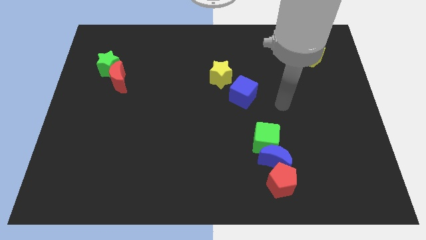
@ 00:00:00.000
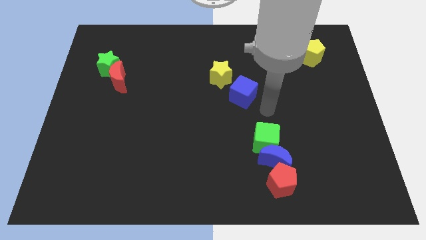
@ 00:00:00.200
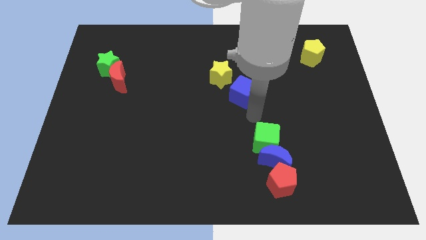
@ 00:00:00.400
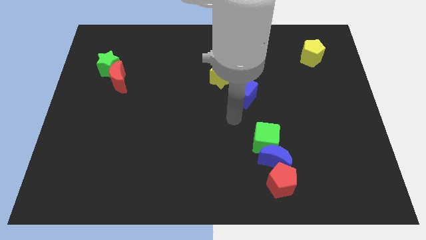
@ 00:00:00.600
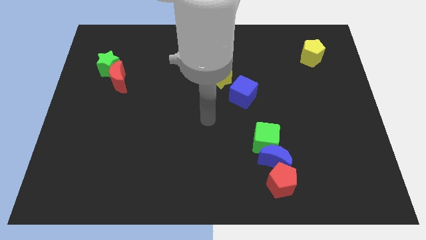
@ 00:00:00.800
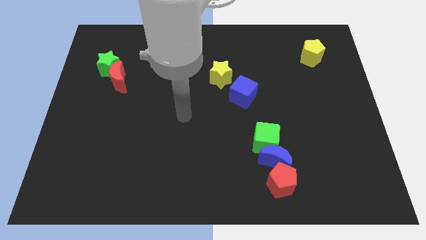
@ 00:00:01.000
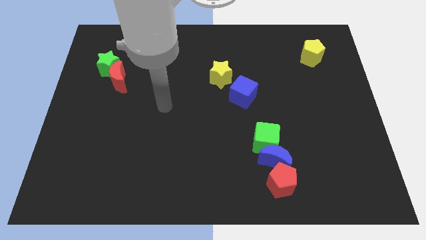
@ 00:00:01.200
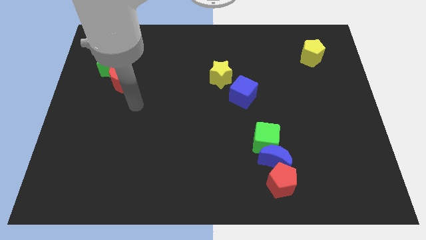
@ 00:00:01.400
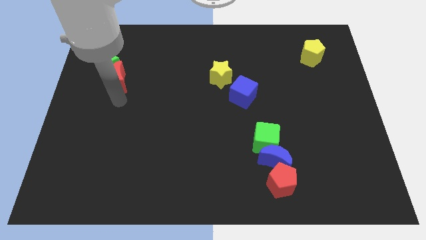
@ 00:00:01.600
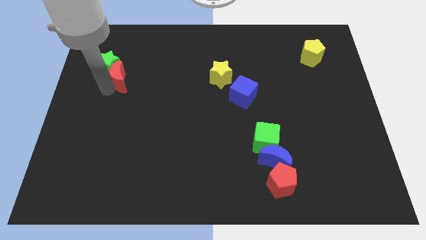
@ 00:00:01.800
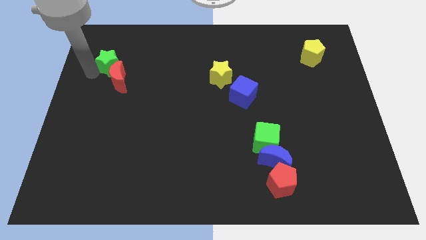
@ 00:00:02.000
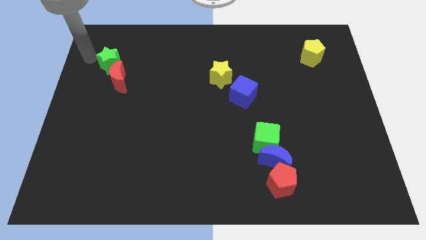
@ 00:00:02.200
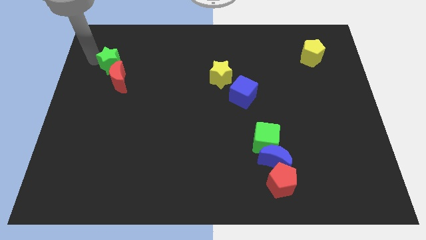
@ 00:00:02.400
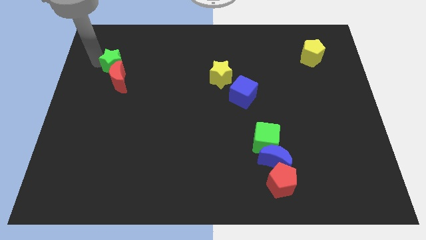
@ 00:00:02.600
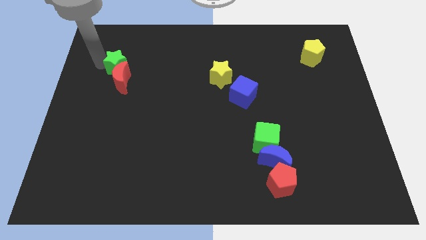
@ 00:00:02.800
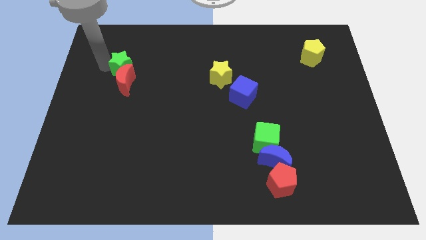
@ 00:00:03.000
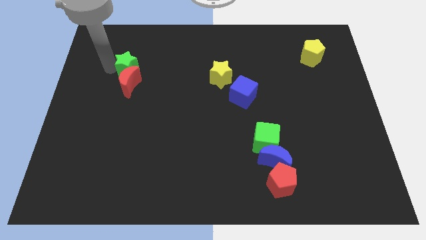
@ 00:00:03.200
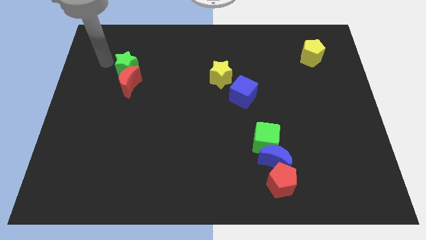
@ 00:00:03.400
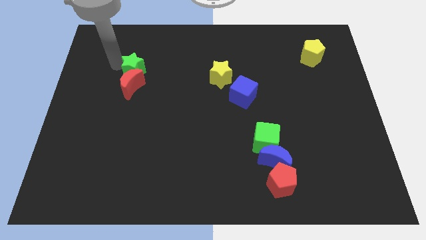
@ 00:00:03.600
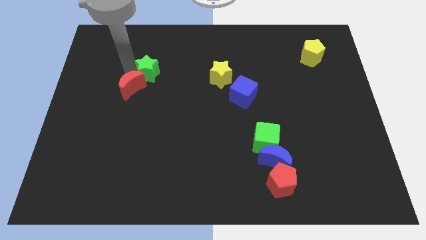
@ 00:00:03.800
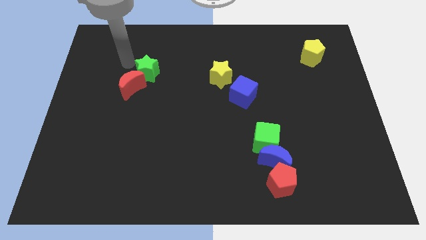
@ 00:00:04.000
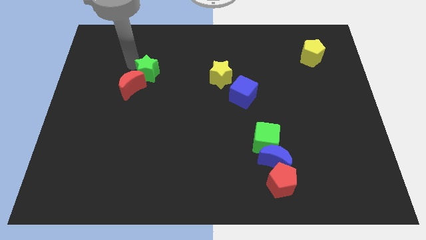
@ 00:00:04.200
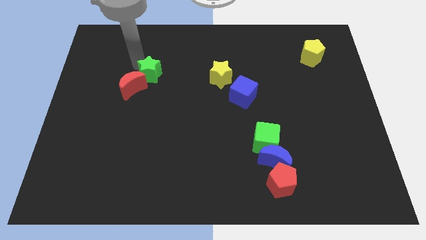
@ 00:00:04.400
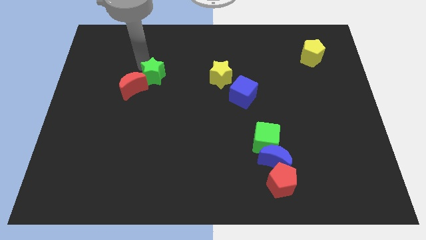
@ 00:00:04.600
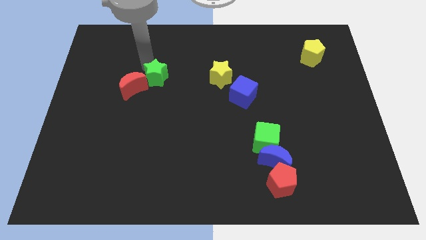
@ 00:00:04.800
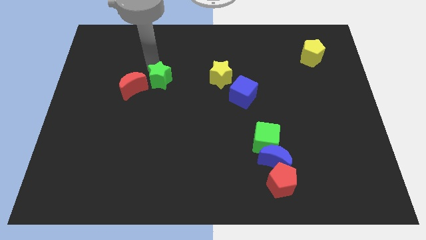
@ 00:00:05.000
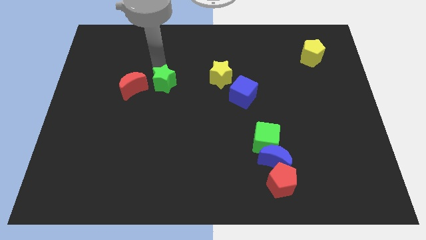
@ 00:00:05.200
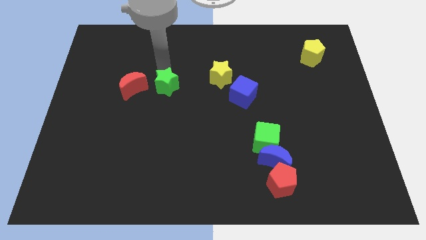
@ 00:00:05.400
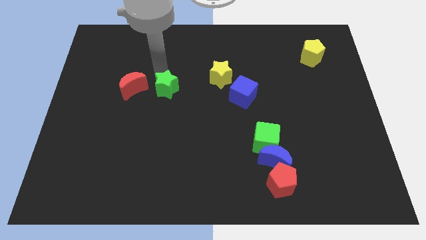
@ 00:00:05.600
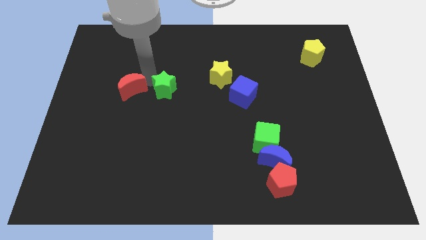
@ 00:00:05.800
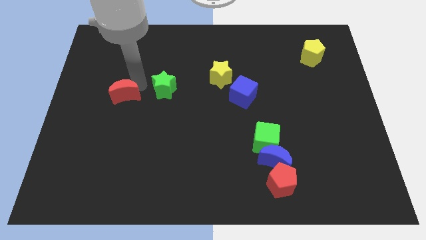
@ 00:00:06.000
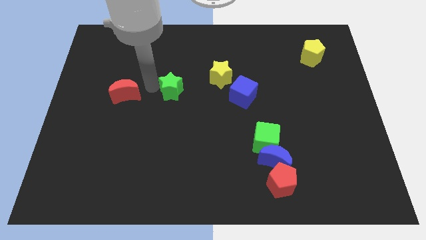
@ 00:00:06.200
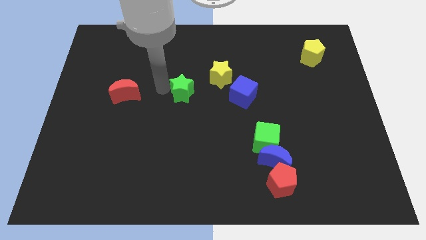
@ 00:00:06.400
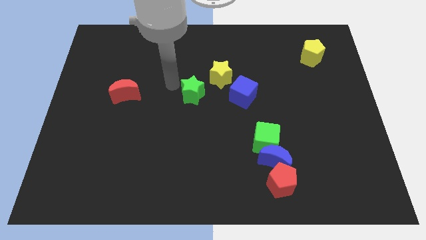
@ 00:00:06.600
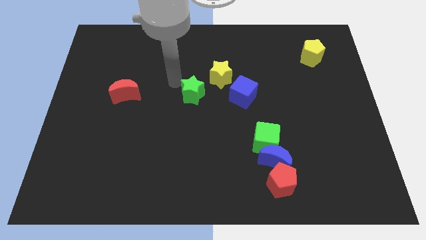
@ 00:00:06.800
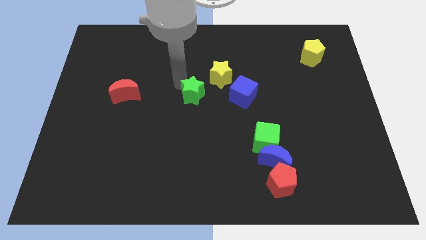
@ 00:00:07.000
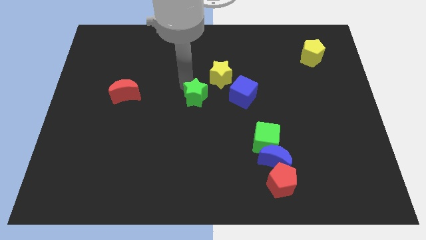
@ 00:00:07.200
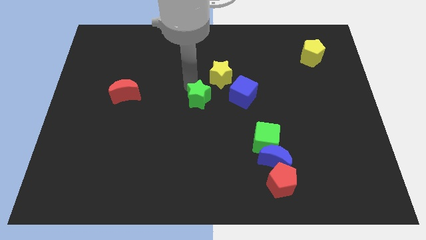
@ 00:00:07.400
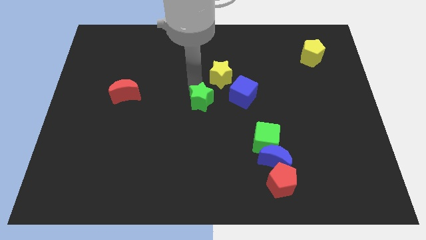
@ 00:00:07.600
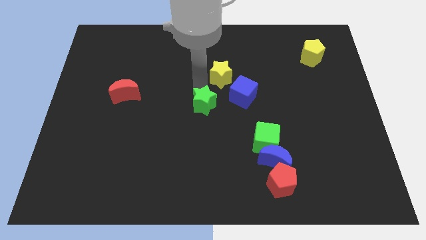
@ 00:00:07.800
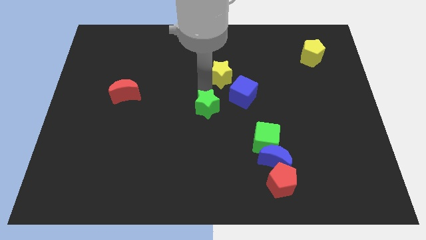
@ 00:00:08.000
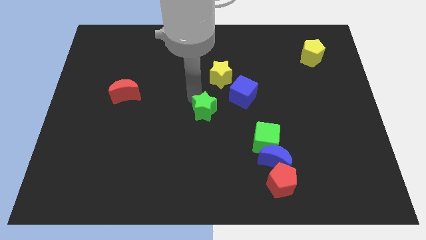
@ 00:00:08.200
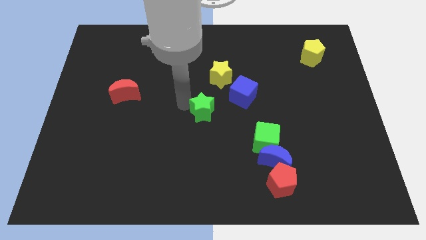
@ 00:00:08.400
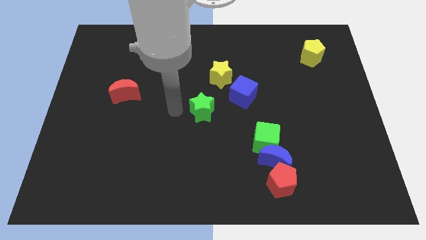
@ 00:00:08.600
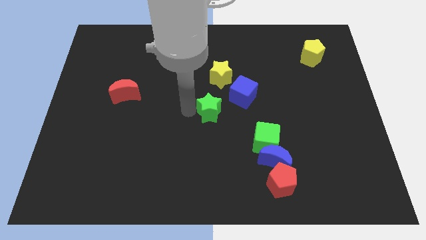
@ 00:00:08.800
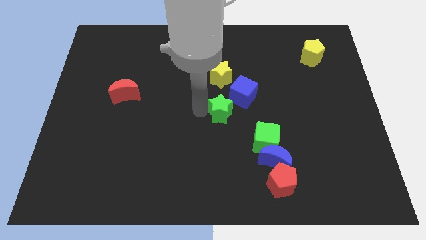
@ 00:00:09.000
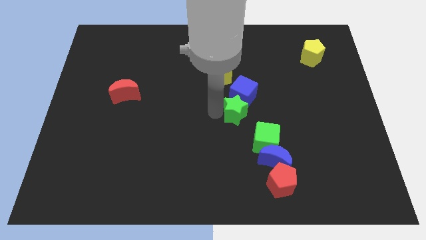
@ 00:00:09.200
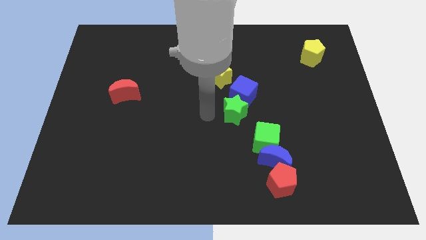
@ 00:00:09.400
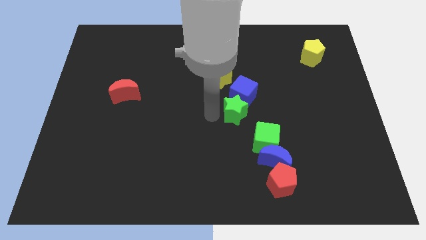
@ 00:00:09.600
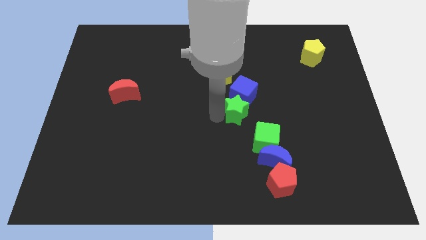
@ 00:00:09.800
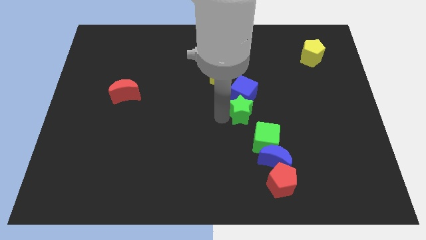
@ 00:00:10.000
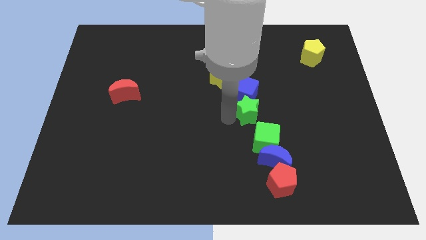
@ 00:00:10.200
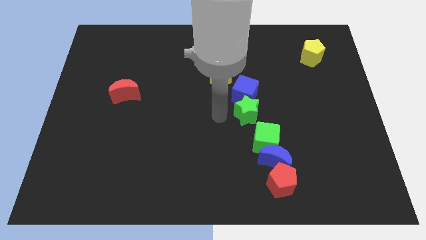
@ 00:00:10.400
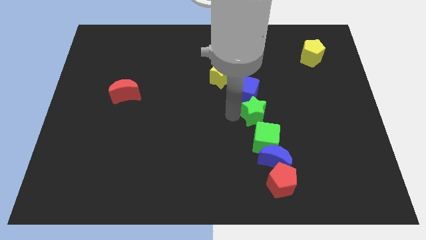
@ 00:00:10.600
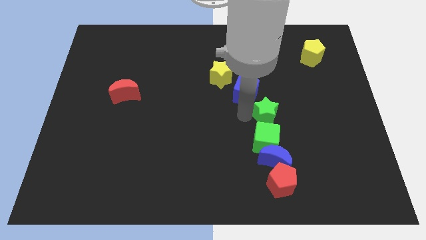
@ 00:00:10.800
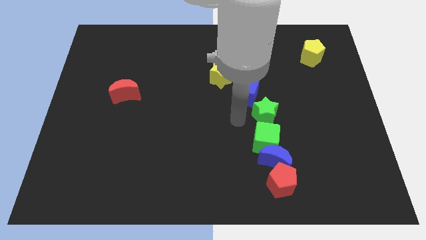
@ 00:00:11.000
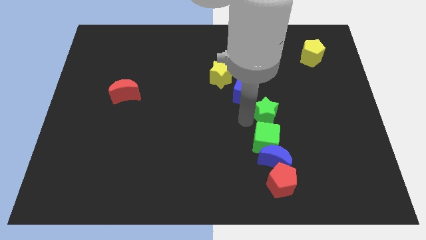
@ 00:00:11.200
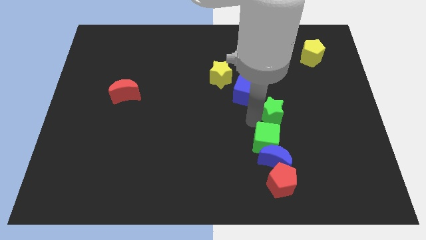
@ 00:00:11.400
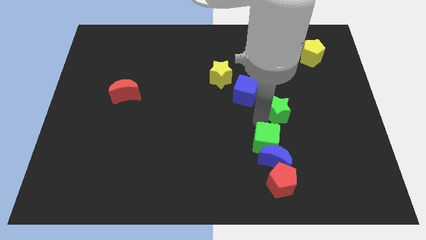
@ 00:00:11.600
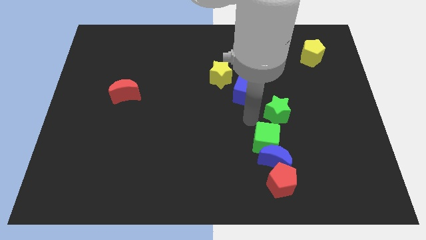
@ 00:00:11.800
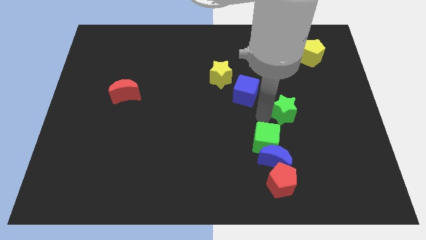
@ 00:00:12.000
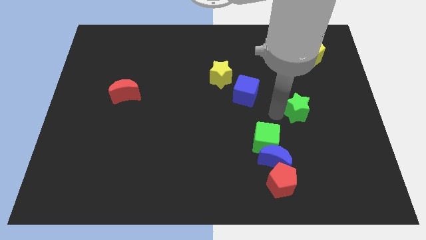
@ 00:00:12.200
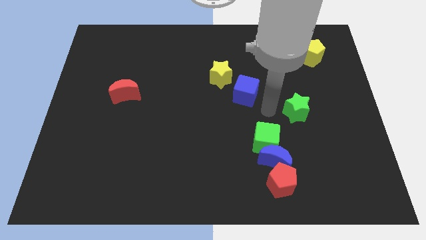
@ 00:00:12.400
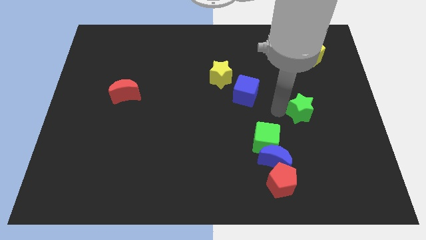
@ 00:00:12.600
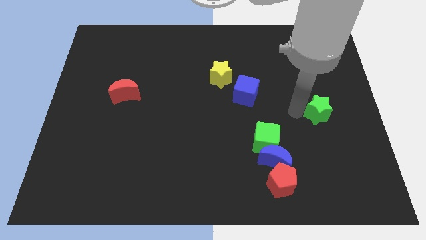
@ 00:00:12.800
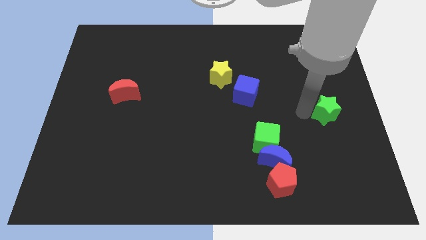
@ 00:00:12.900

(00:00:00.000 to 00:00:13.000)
slide the green star to the right side of the board

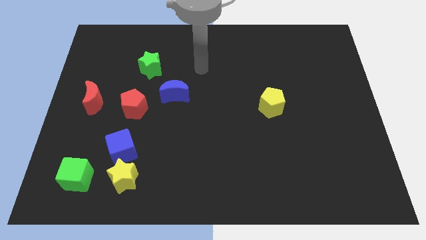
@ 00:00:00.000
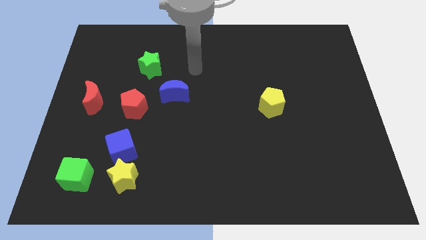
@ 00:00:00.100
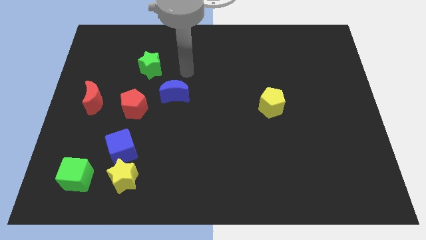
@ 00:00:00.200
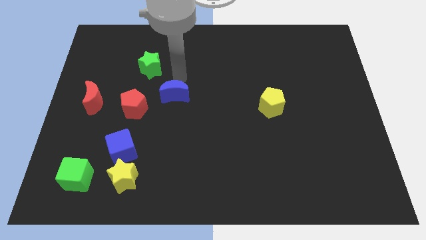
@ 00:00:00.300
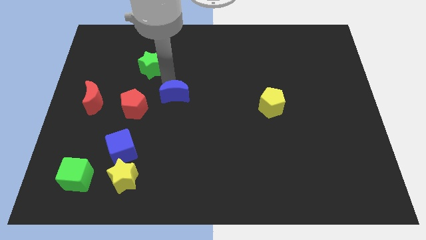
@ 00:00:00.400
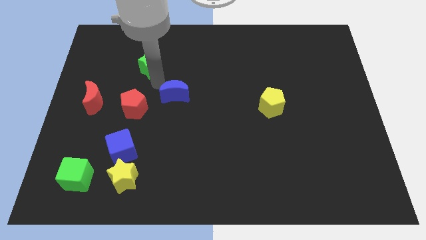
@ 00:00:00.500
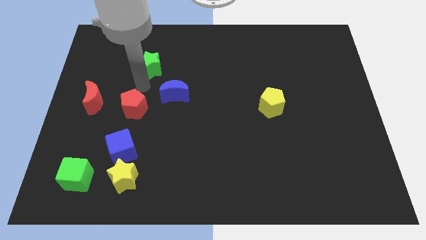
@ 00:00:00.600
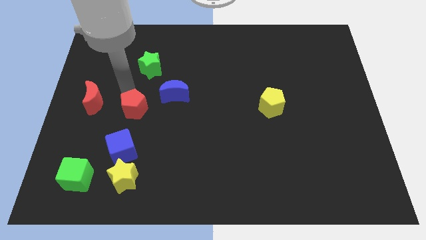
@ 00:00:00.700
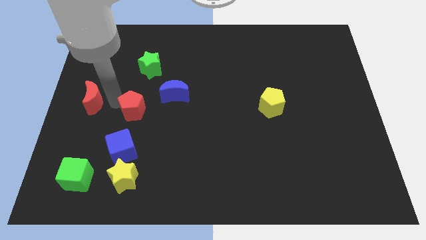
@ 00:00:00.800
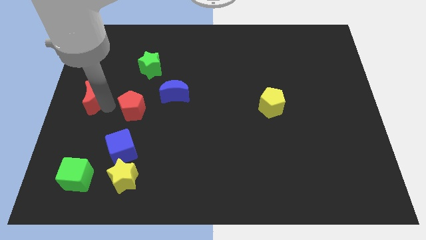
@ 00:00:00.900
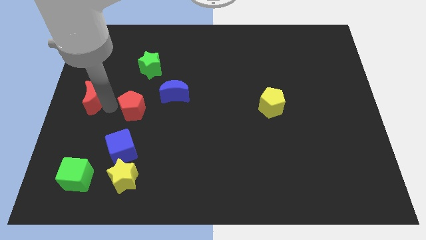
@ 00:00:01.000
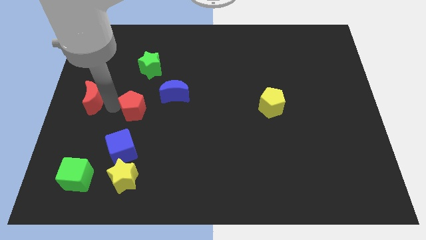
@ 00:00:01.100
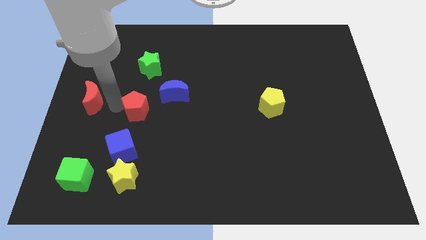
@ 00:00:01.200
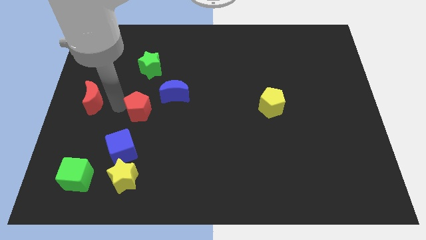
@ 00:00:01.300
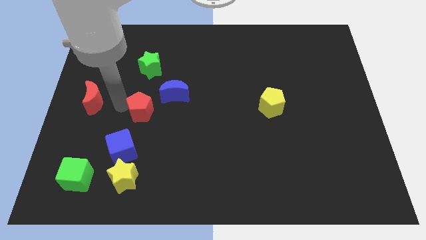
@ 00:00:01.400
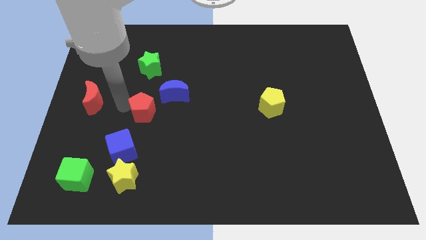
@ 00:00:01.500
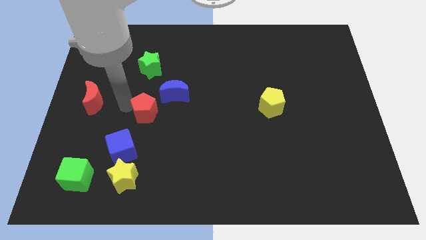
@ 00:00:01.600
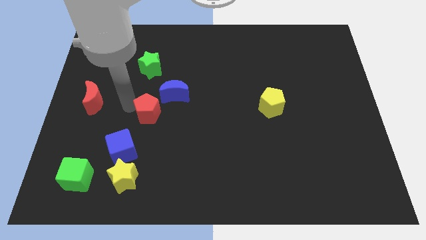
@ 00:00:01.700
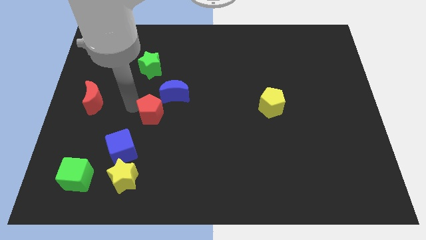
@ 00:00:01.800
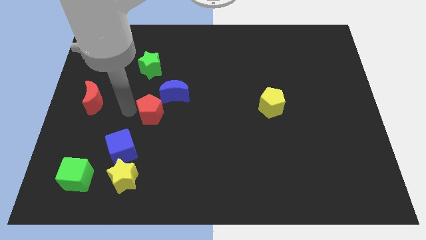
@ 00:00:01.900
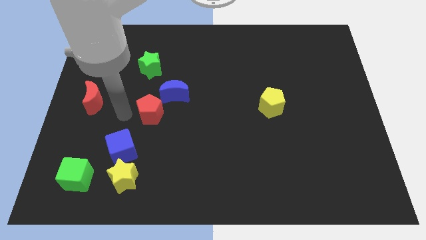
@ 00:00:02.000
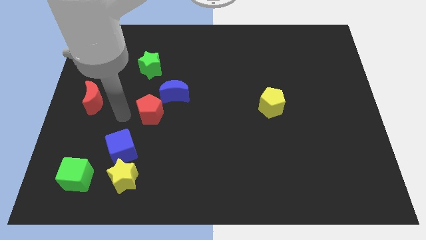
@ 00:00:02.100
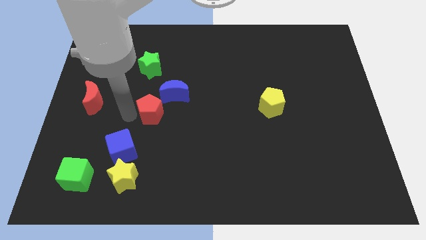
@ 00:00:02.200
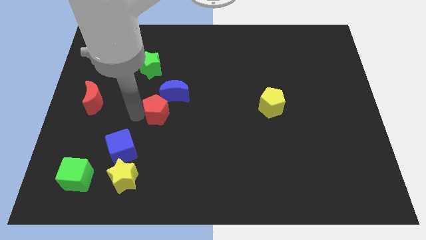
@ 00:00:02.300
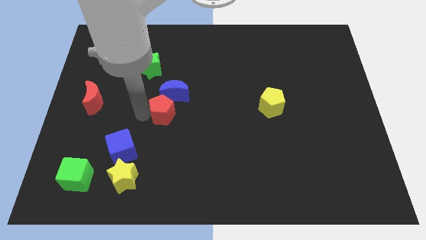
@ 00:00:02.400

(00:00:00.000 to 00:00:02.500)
push the red pentagon to the middle
